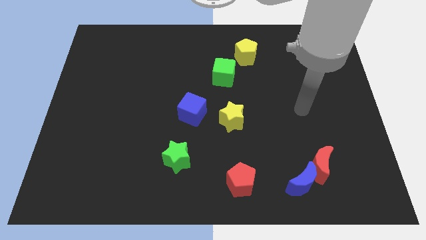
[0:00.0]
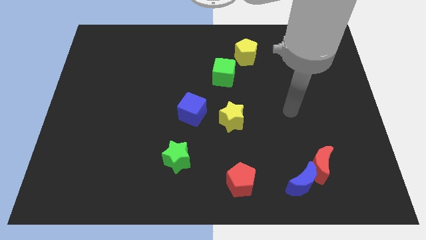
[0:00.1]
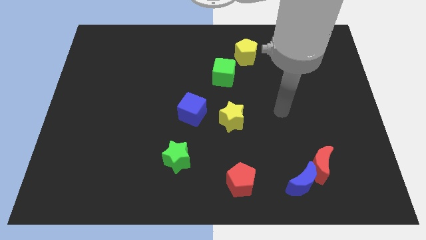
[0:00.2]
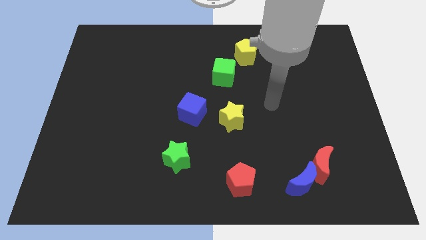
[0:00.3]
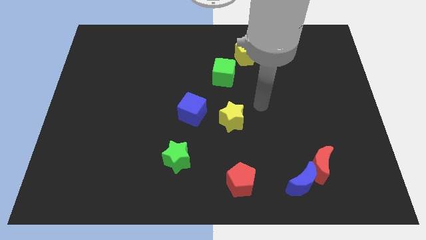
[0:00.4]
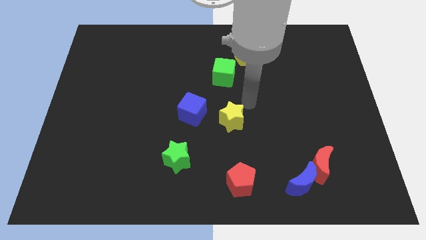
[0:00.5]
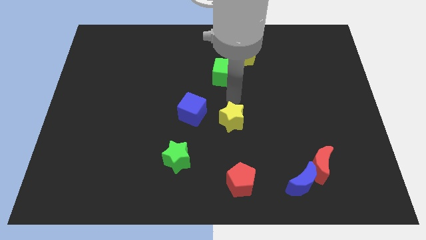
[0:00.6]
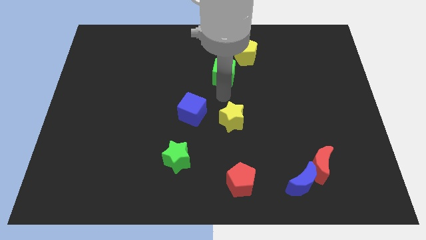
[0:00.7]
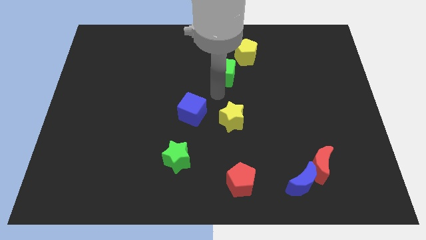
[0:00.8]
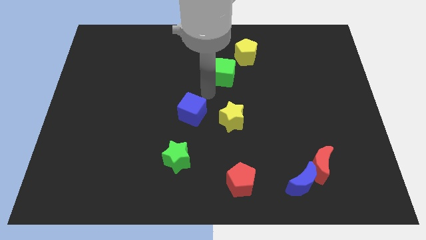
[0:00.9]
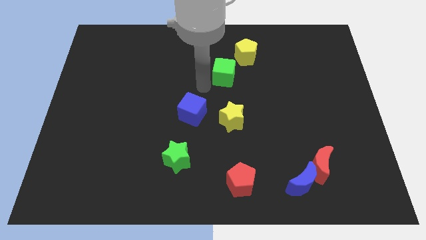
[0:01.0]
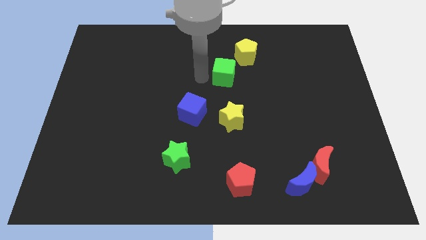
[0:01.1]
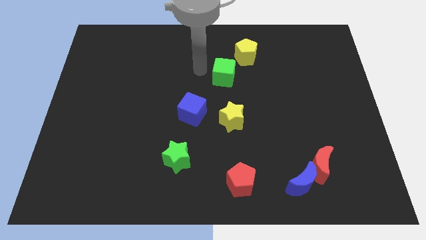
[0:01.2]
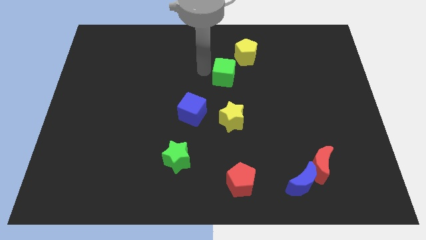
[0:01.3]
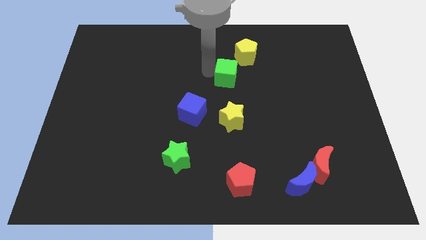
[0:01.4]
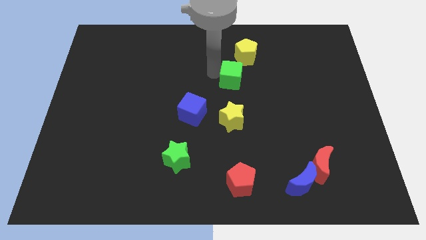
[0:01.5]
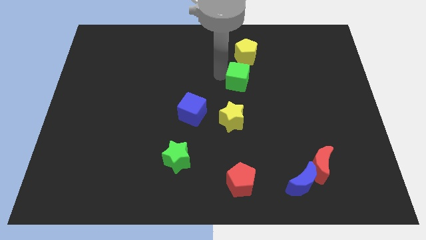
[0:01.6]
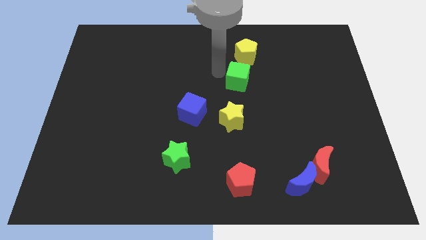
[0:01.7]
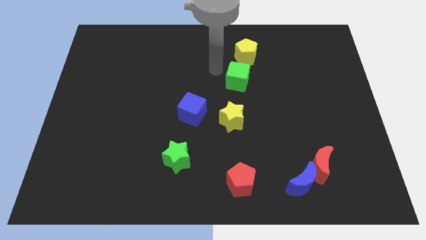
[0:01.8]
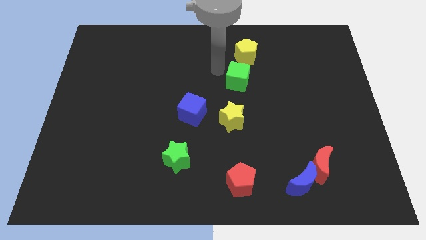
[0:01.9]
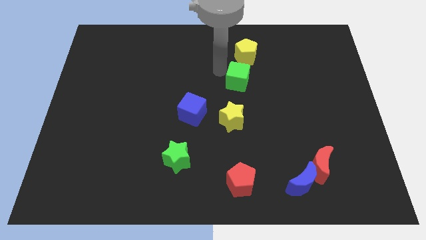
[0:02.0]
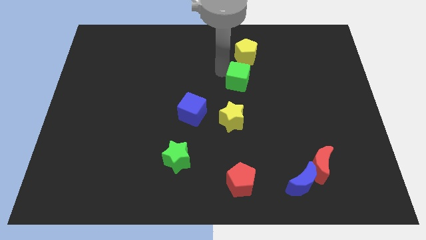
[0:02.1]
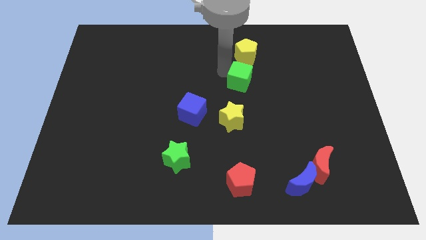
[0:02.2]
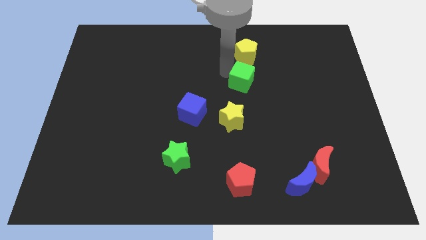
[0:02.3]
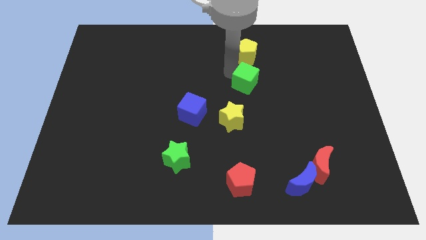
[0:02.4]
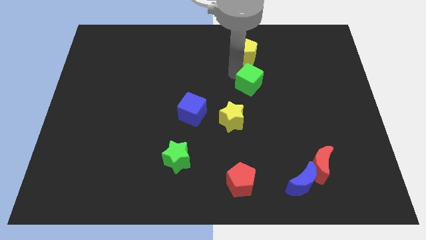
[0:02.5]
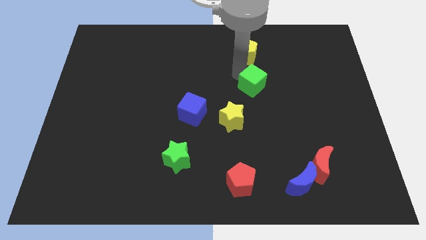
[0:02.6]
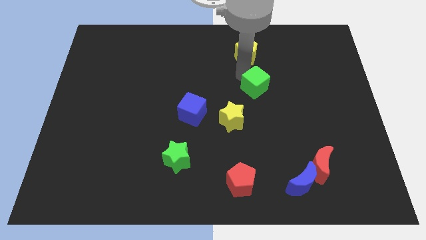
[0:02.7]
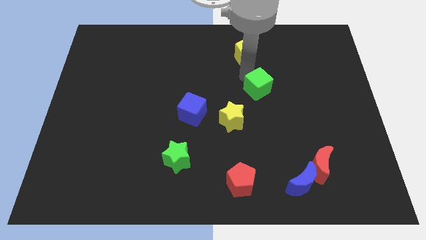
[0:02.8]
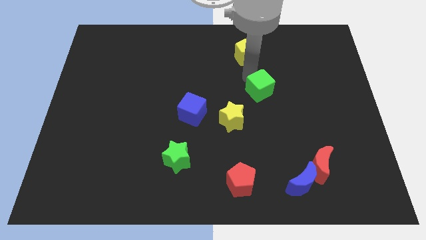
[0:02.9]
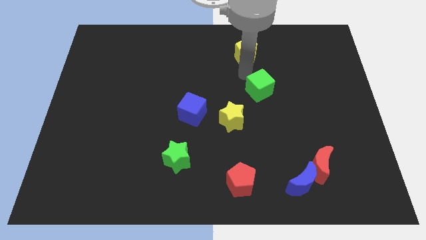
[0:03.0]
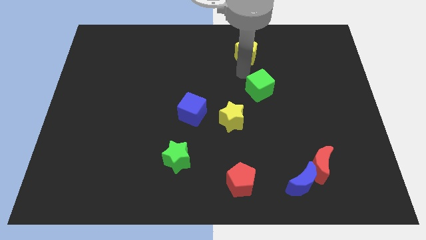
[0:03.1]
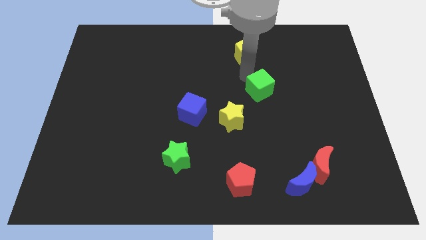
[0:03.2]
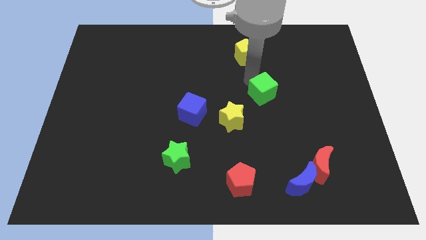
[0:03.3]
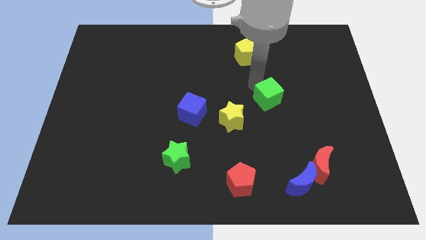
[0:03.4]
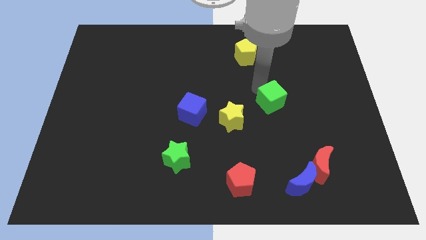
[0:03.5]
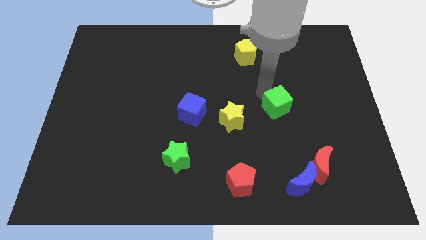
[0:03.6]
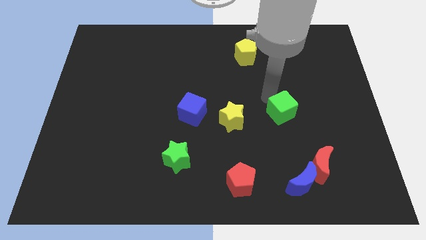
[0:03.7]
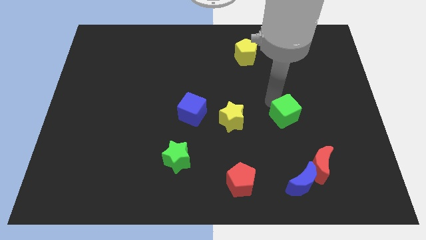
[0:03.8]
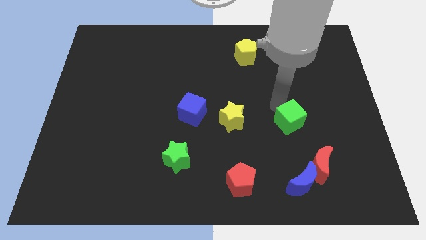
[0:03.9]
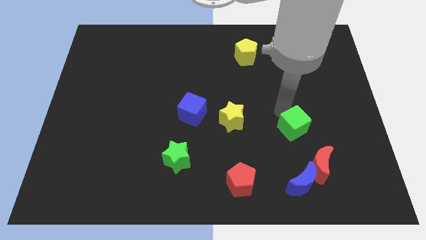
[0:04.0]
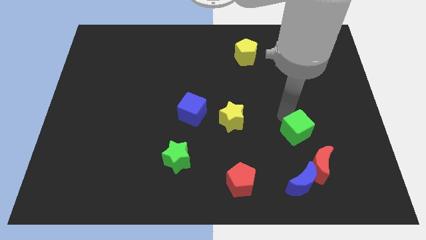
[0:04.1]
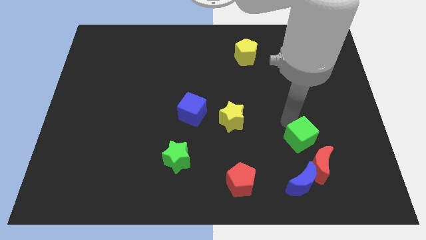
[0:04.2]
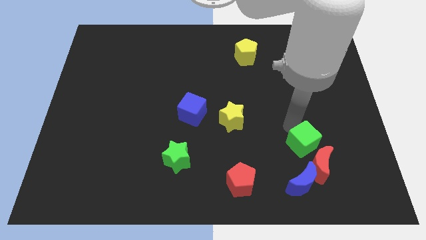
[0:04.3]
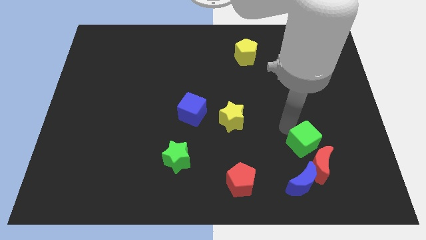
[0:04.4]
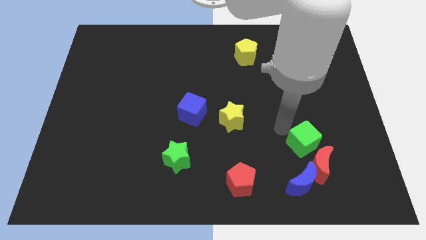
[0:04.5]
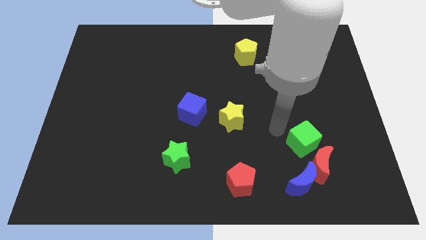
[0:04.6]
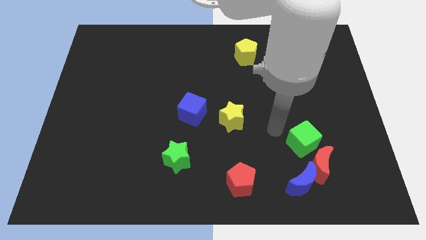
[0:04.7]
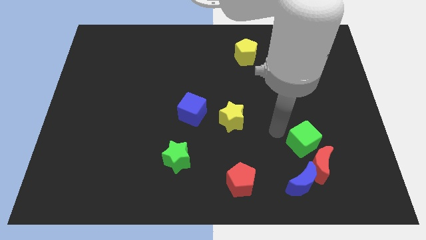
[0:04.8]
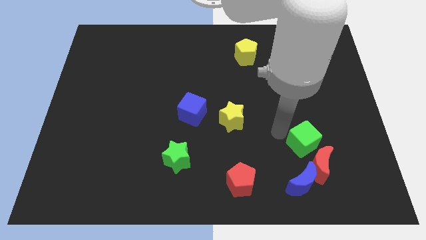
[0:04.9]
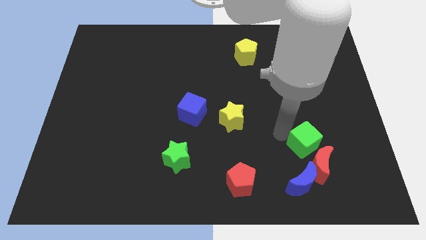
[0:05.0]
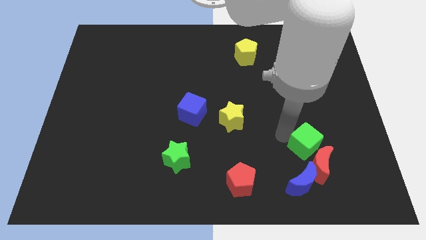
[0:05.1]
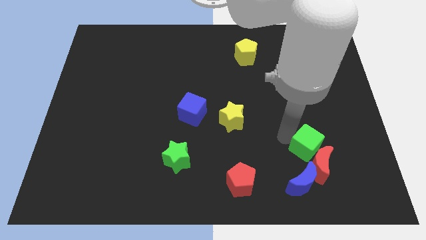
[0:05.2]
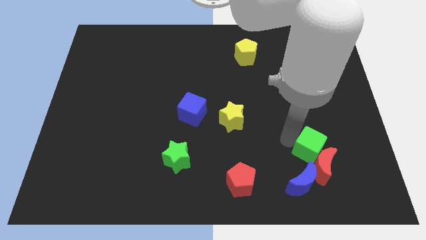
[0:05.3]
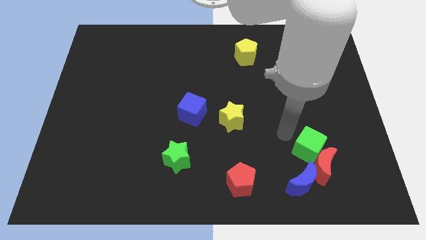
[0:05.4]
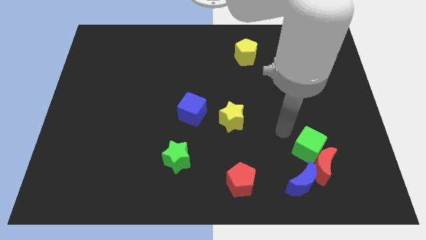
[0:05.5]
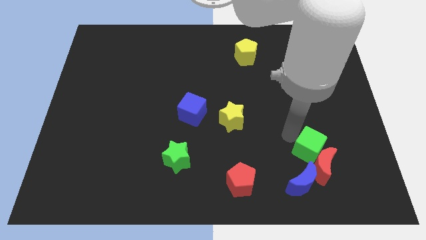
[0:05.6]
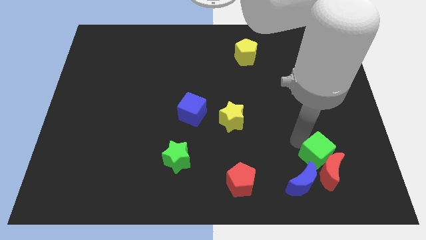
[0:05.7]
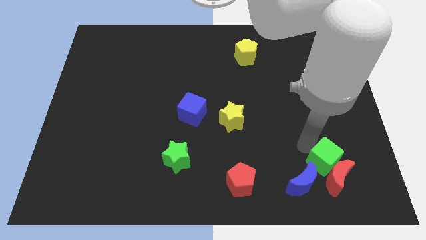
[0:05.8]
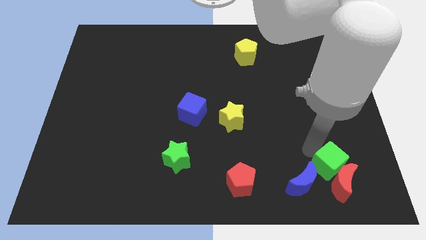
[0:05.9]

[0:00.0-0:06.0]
slide the green cube right of the blue moon
